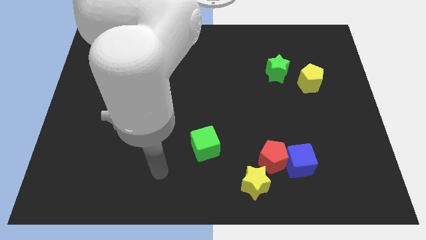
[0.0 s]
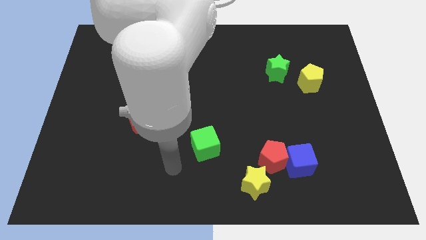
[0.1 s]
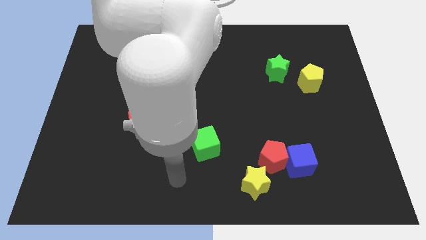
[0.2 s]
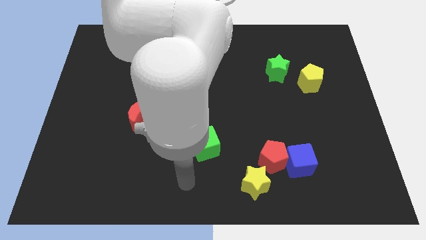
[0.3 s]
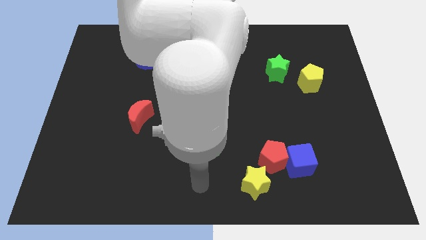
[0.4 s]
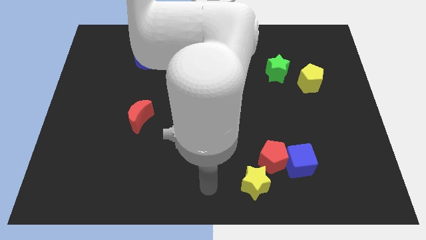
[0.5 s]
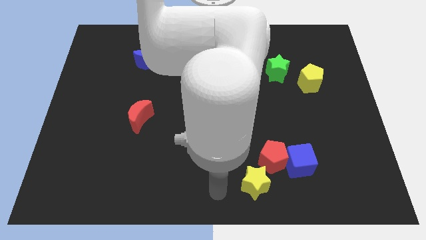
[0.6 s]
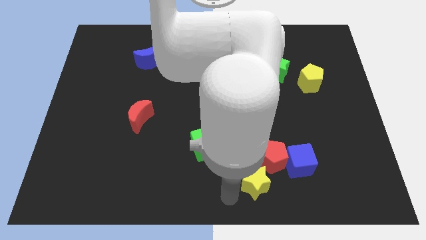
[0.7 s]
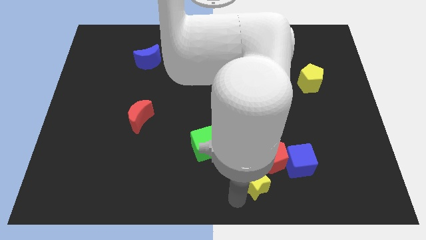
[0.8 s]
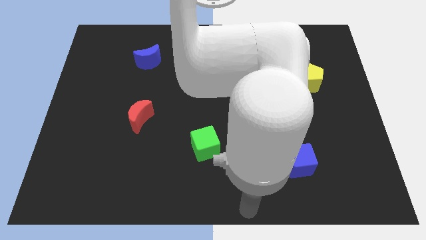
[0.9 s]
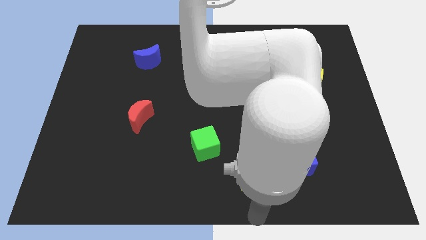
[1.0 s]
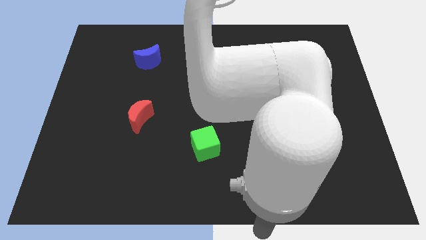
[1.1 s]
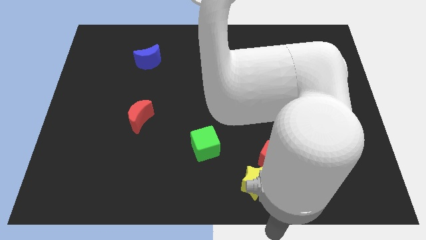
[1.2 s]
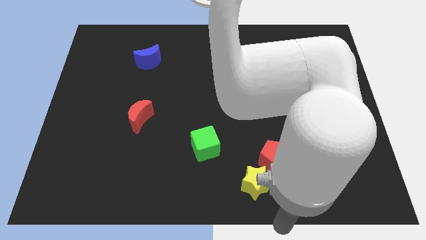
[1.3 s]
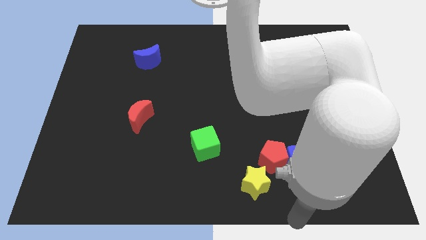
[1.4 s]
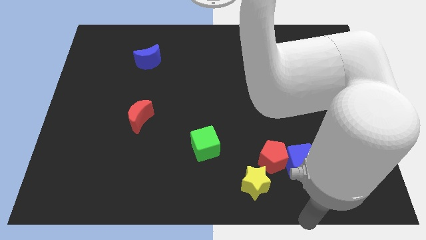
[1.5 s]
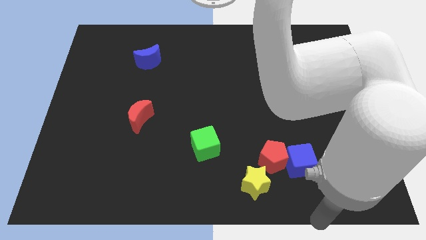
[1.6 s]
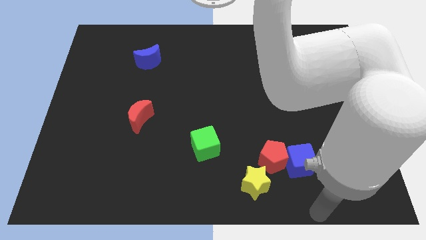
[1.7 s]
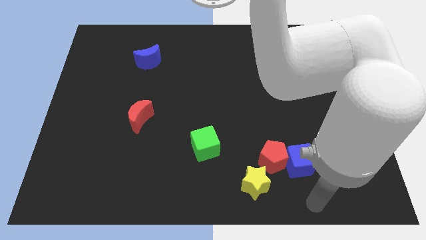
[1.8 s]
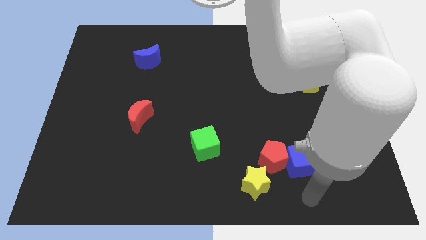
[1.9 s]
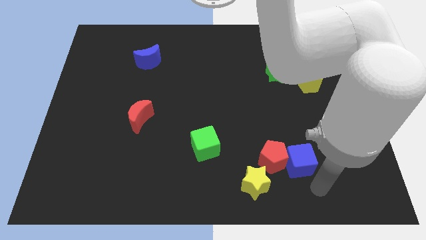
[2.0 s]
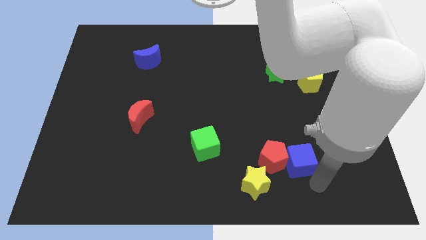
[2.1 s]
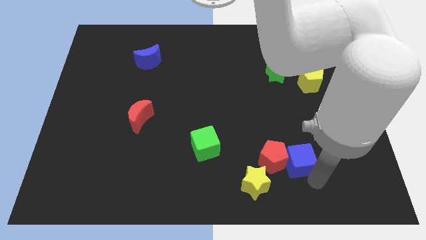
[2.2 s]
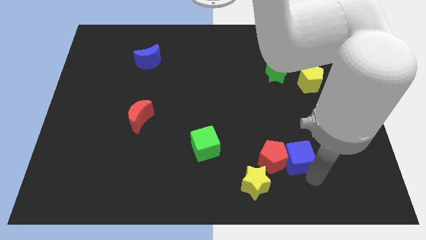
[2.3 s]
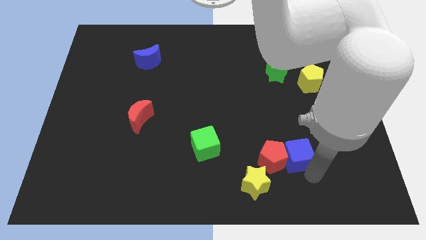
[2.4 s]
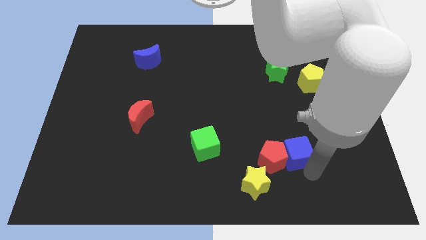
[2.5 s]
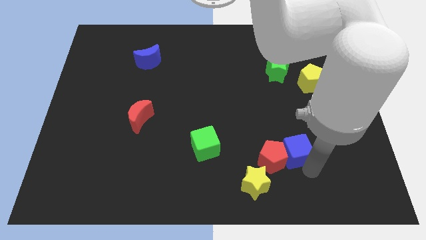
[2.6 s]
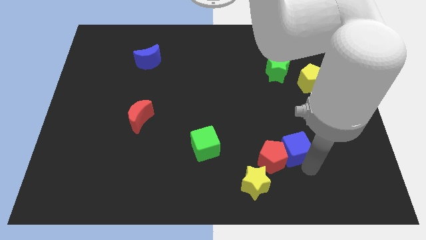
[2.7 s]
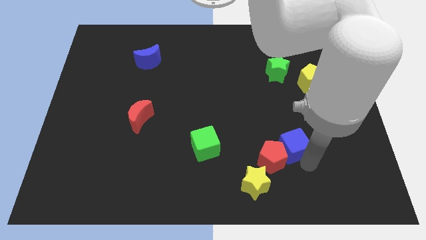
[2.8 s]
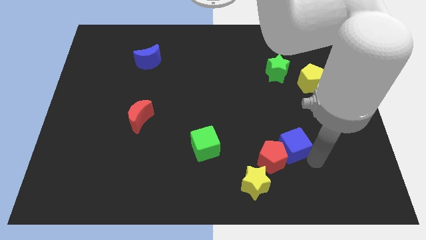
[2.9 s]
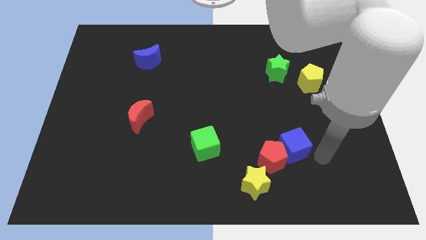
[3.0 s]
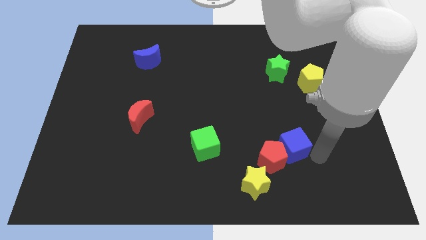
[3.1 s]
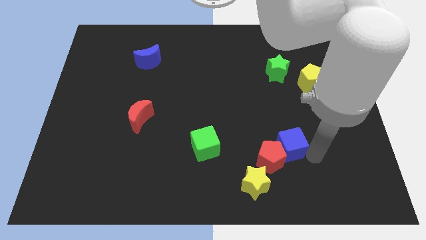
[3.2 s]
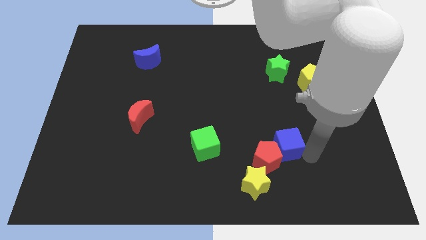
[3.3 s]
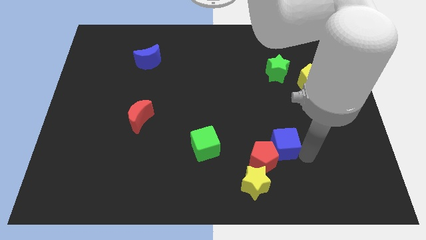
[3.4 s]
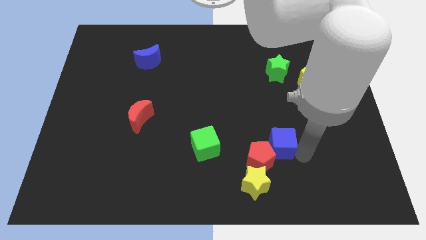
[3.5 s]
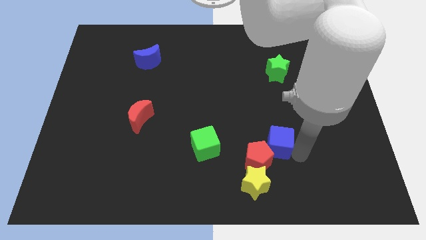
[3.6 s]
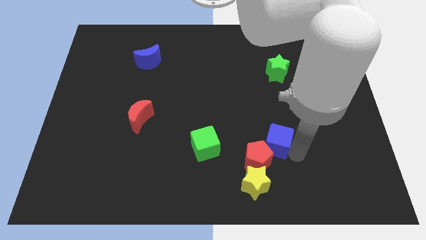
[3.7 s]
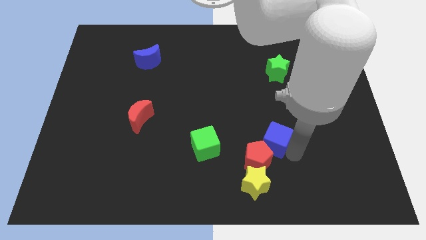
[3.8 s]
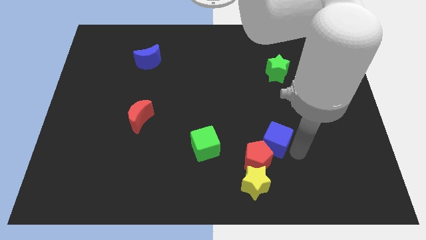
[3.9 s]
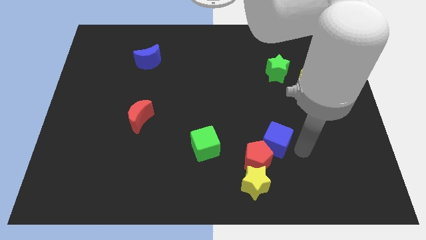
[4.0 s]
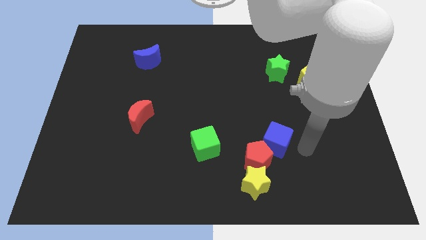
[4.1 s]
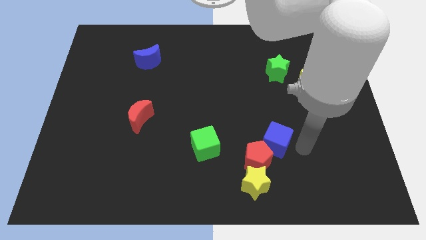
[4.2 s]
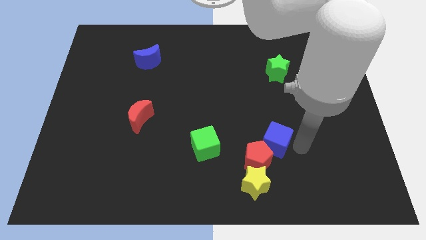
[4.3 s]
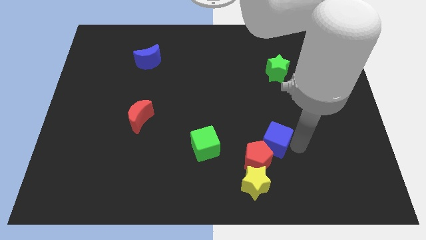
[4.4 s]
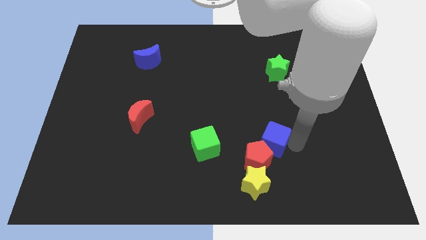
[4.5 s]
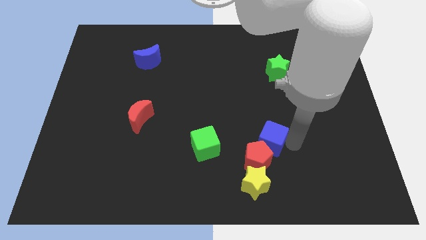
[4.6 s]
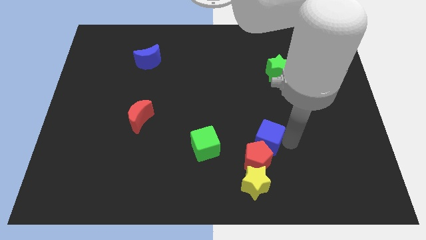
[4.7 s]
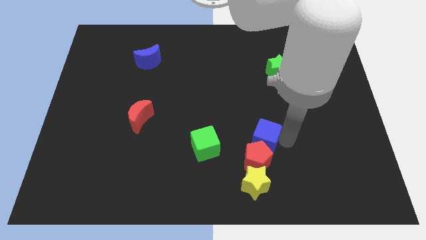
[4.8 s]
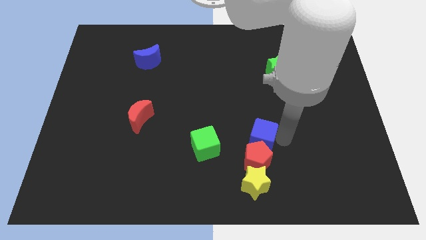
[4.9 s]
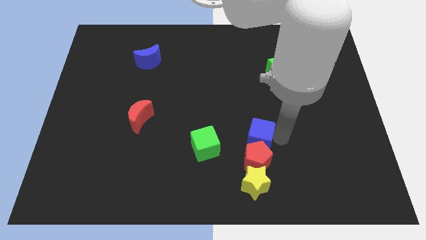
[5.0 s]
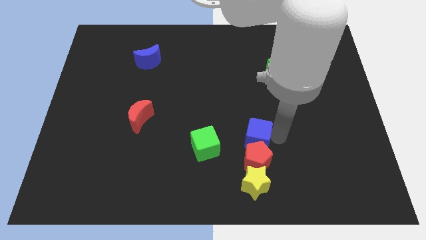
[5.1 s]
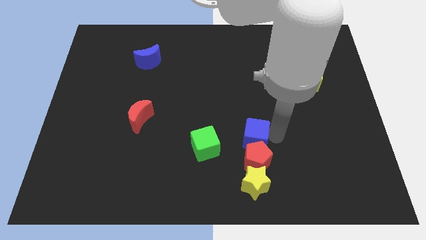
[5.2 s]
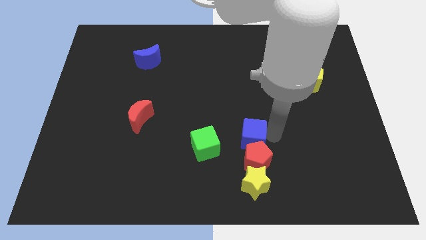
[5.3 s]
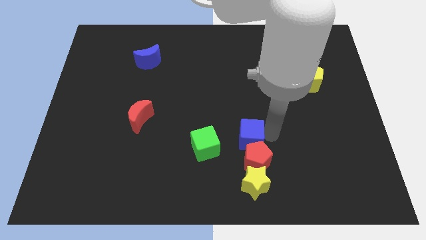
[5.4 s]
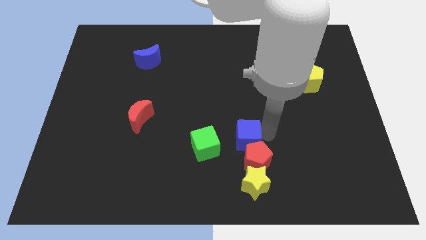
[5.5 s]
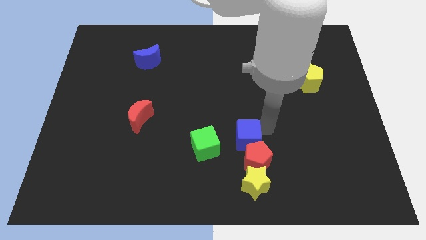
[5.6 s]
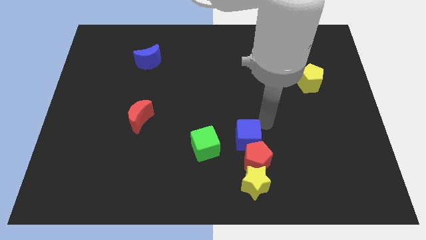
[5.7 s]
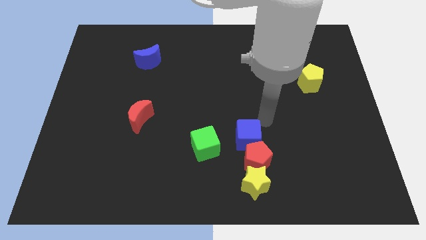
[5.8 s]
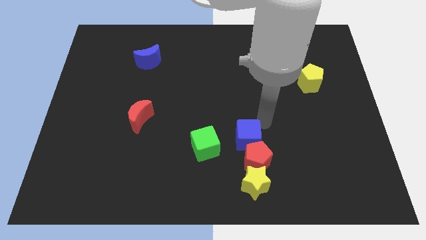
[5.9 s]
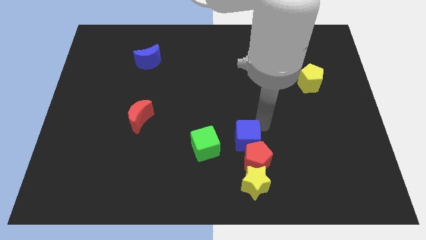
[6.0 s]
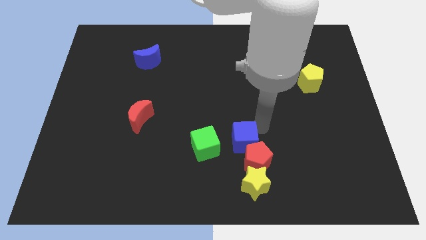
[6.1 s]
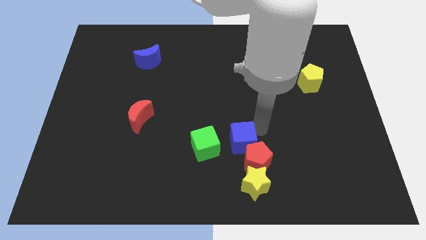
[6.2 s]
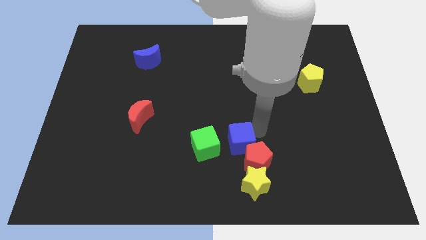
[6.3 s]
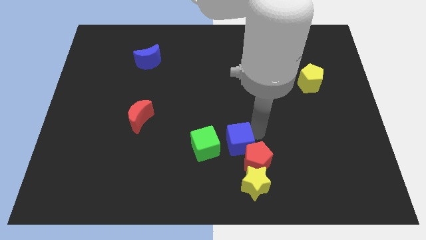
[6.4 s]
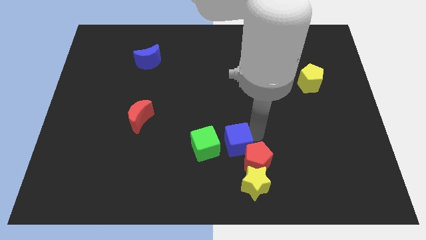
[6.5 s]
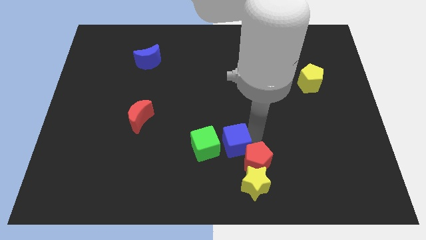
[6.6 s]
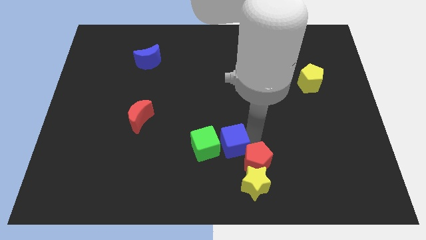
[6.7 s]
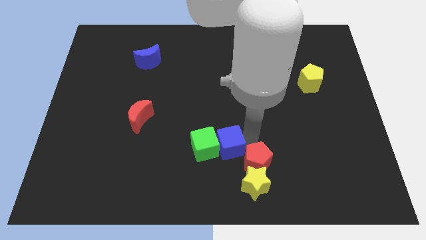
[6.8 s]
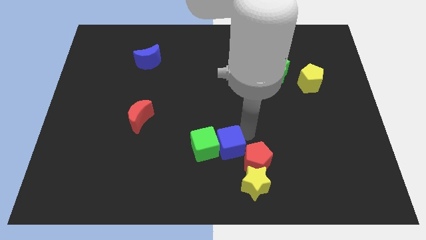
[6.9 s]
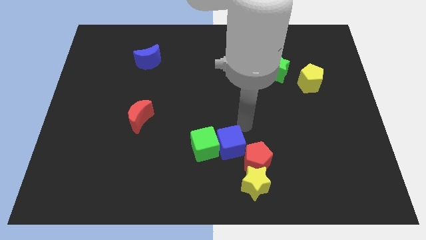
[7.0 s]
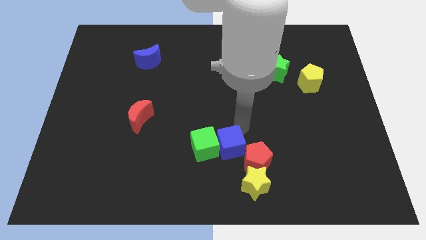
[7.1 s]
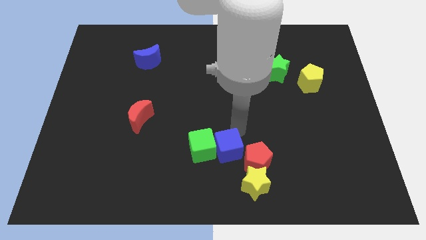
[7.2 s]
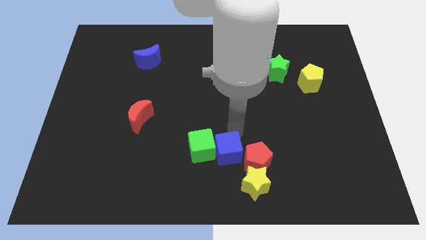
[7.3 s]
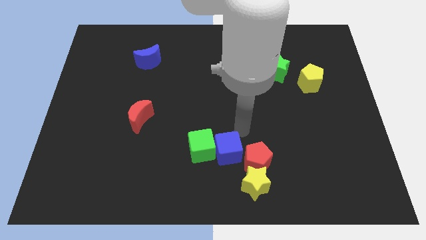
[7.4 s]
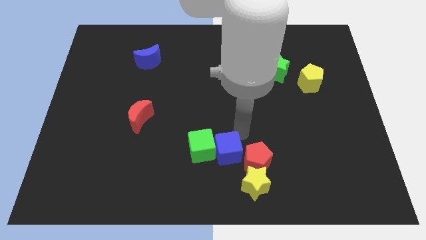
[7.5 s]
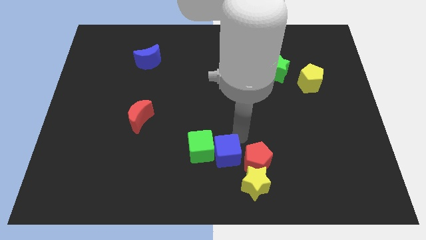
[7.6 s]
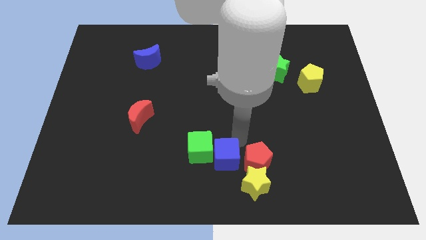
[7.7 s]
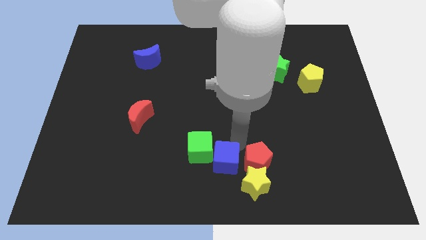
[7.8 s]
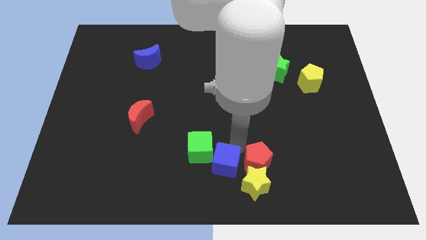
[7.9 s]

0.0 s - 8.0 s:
push the blue cube just left of the yellow star
